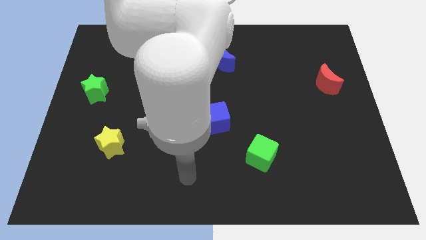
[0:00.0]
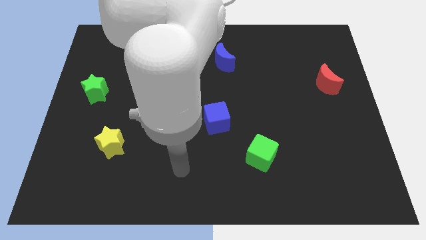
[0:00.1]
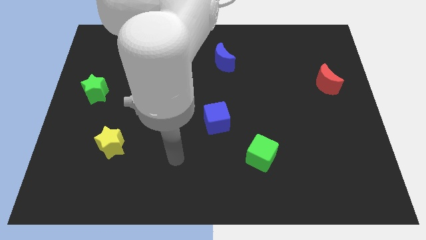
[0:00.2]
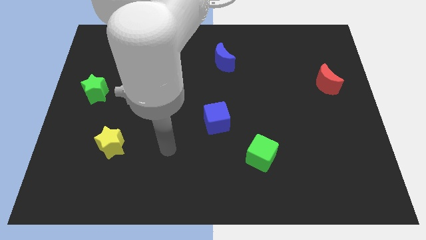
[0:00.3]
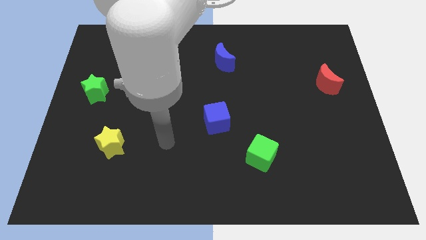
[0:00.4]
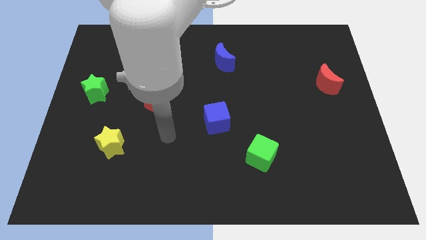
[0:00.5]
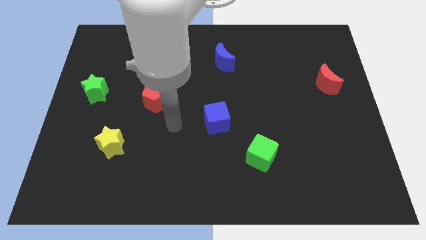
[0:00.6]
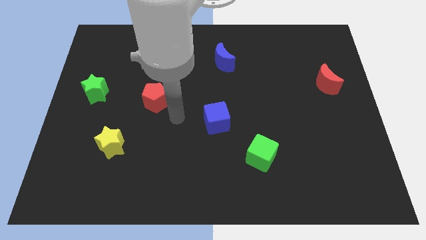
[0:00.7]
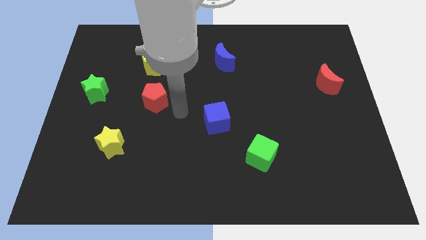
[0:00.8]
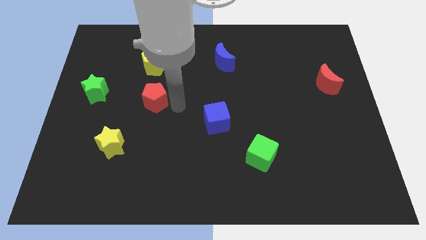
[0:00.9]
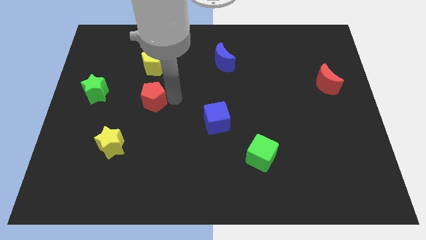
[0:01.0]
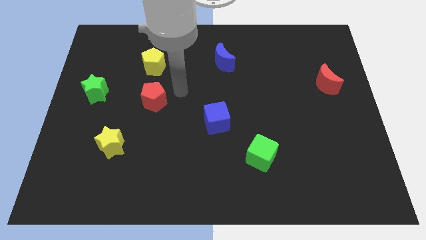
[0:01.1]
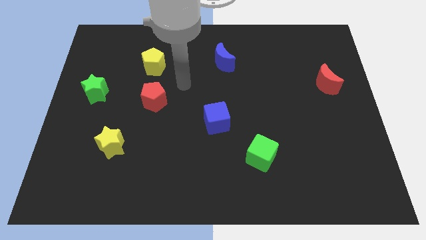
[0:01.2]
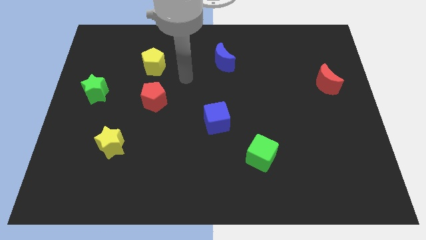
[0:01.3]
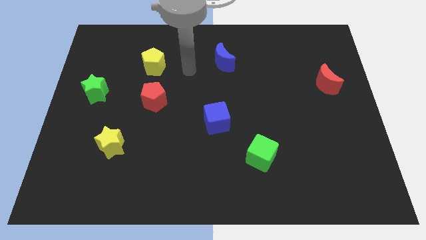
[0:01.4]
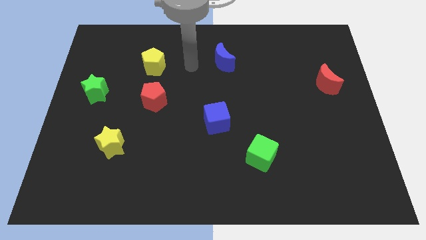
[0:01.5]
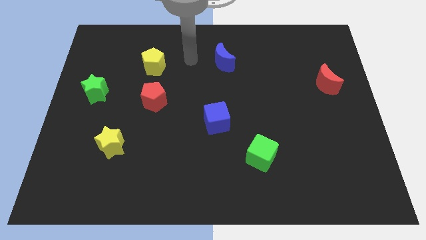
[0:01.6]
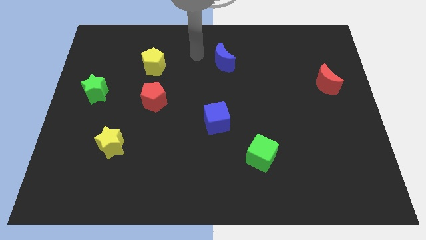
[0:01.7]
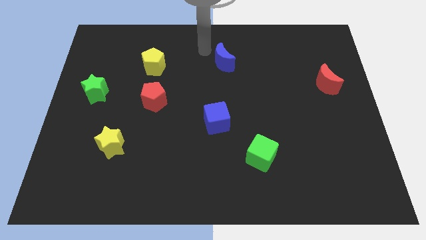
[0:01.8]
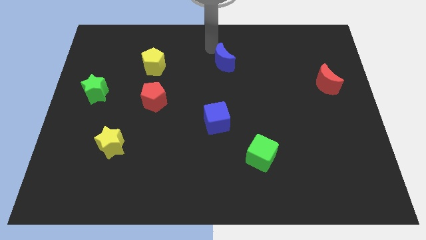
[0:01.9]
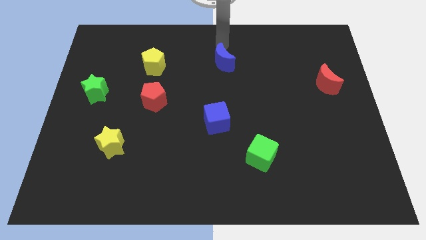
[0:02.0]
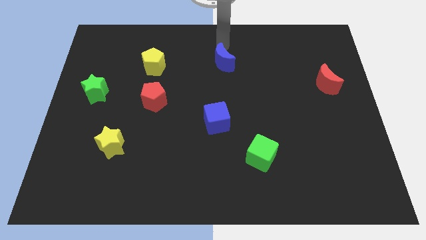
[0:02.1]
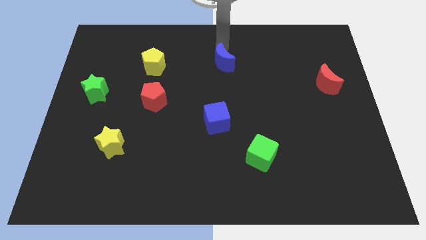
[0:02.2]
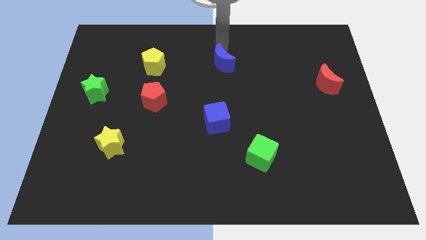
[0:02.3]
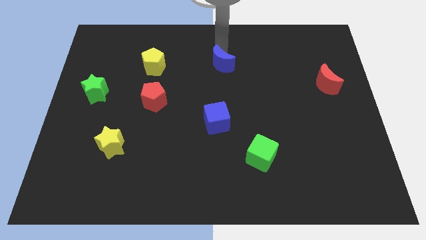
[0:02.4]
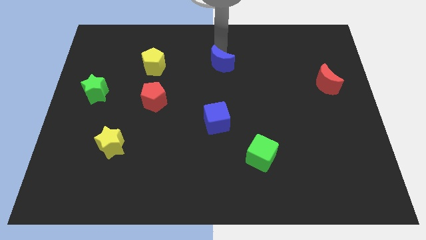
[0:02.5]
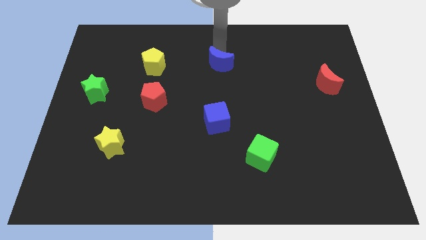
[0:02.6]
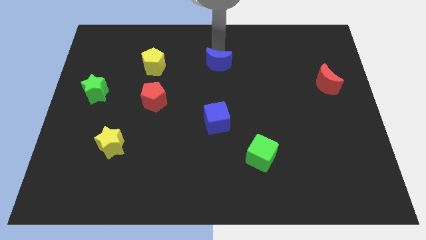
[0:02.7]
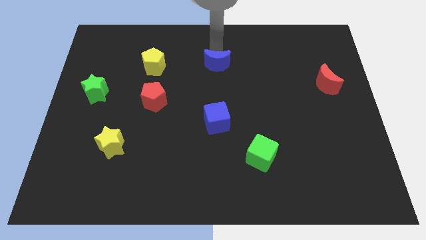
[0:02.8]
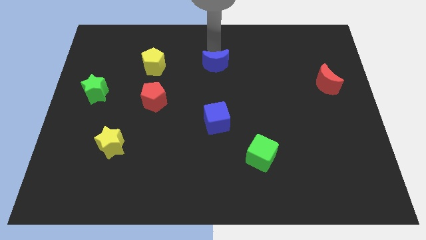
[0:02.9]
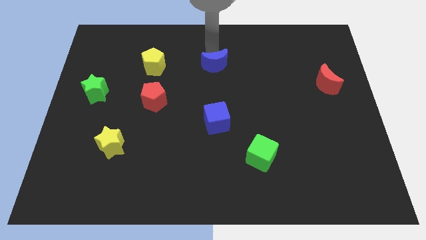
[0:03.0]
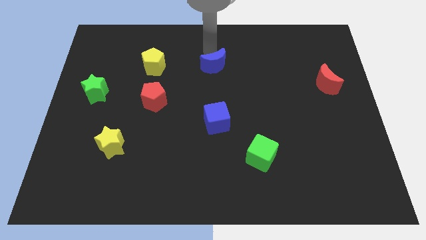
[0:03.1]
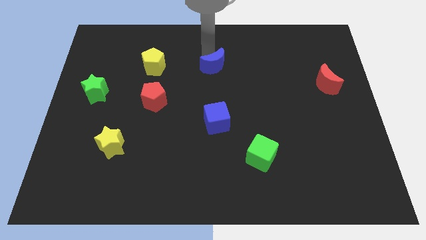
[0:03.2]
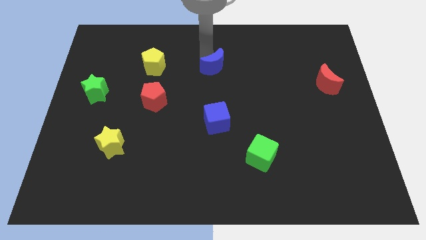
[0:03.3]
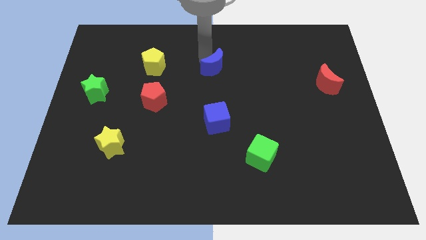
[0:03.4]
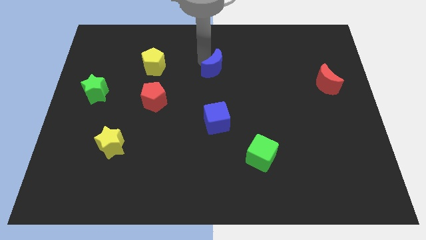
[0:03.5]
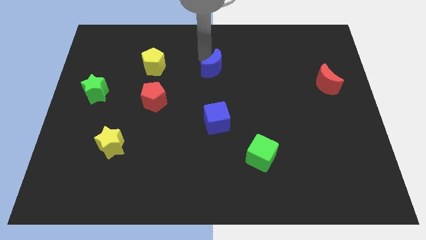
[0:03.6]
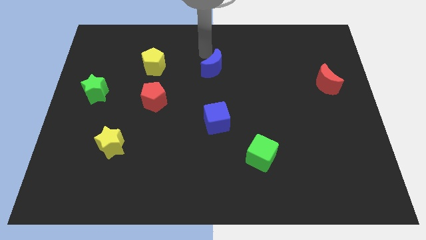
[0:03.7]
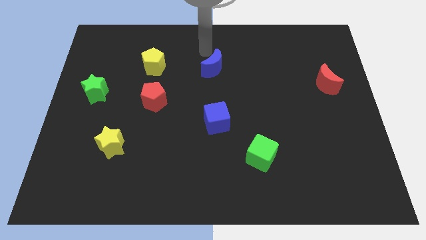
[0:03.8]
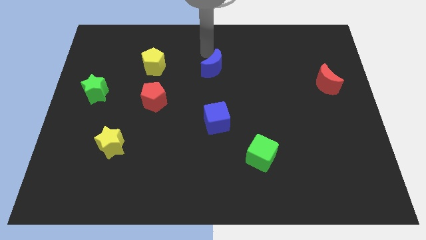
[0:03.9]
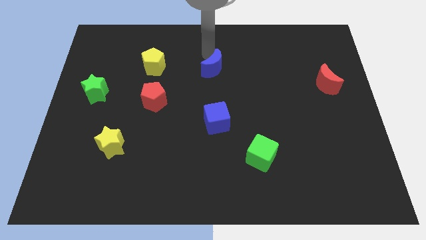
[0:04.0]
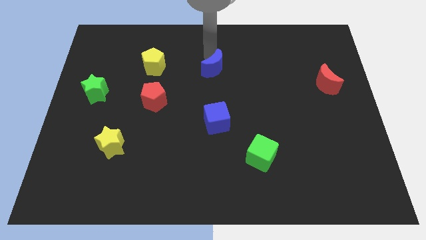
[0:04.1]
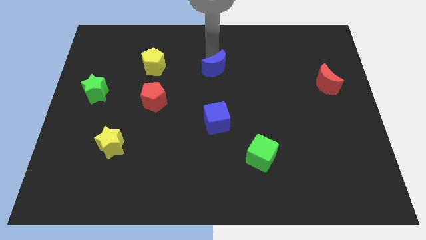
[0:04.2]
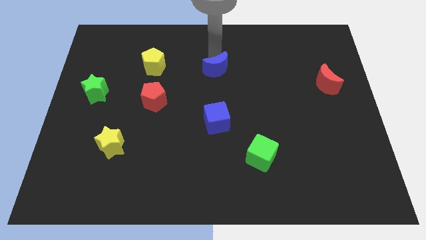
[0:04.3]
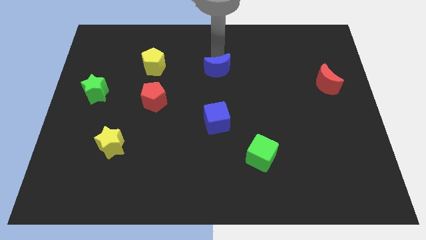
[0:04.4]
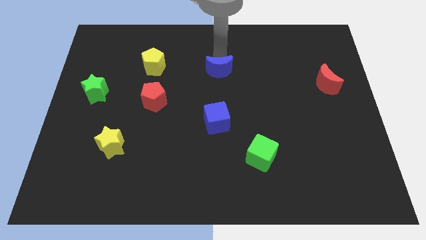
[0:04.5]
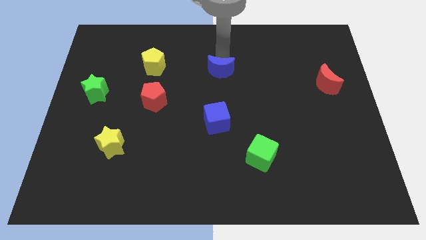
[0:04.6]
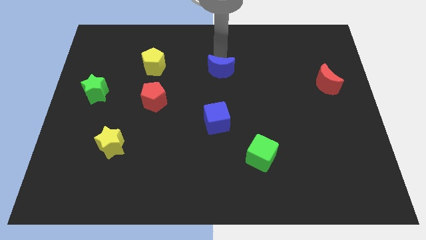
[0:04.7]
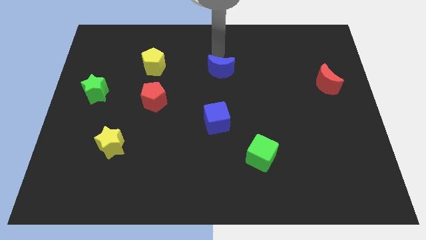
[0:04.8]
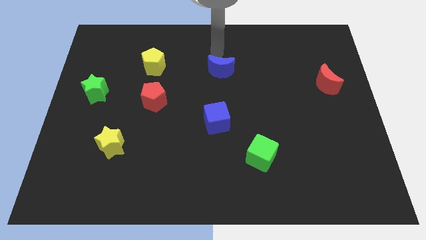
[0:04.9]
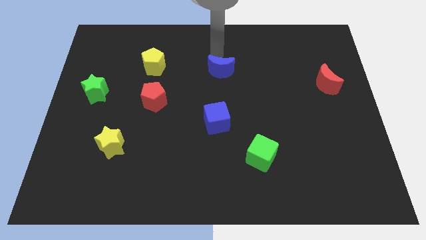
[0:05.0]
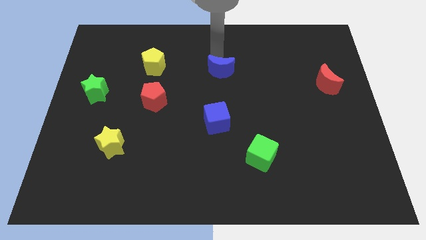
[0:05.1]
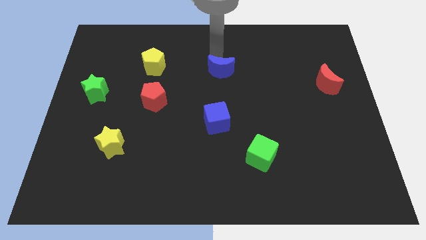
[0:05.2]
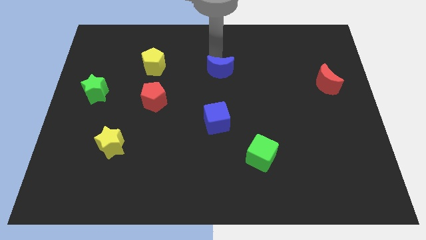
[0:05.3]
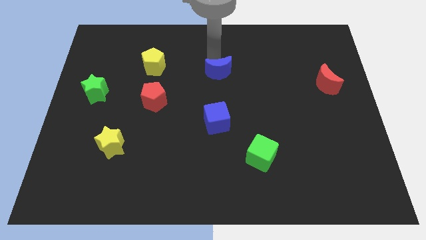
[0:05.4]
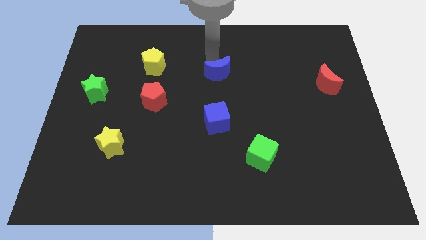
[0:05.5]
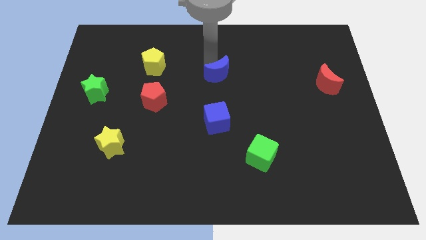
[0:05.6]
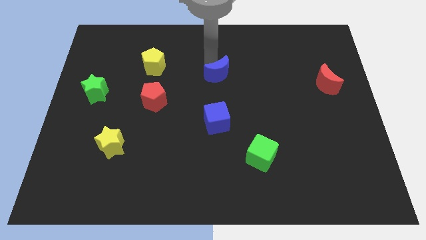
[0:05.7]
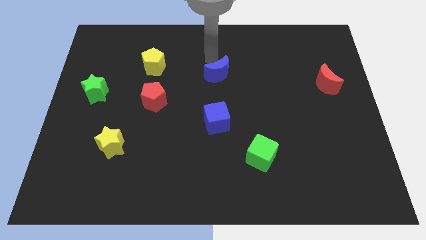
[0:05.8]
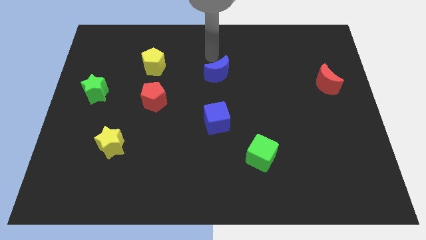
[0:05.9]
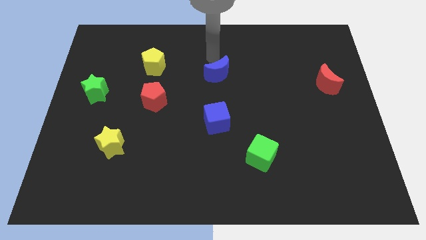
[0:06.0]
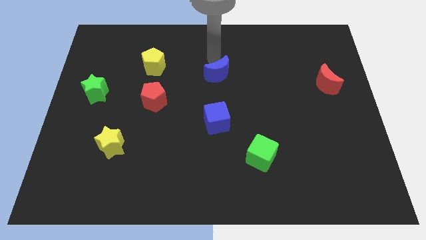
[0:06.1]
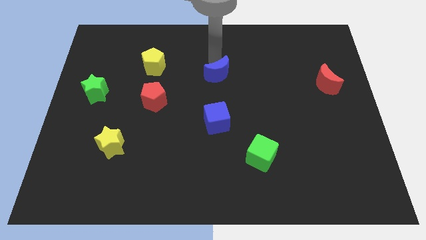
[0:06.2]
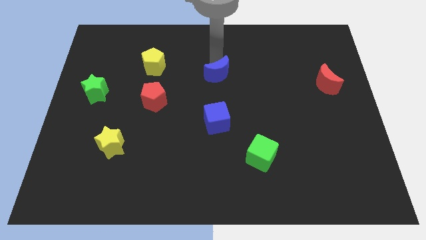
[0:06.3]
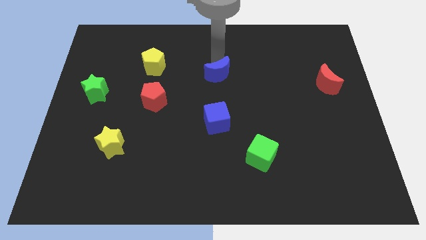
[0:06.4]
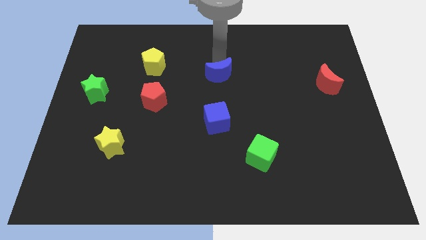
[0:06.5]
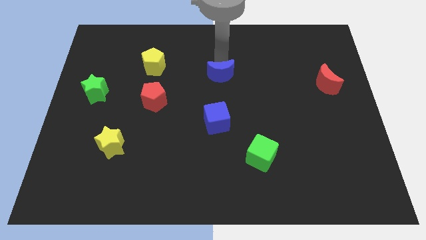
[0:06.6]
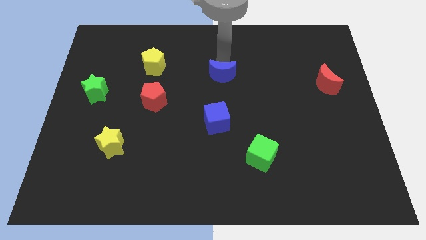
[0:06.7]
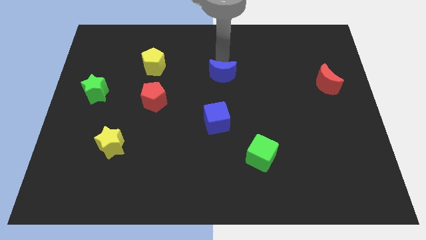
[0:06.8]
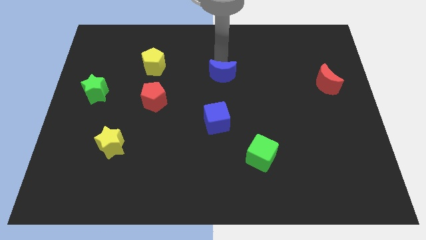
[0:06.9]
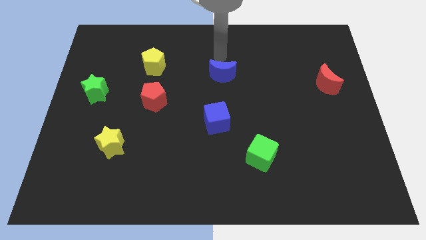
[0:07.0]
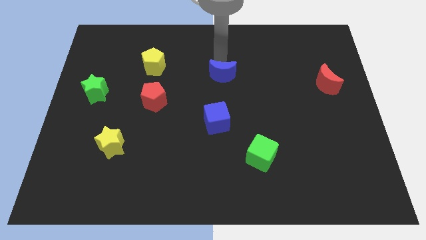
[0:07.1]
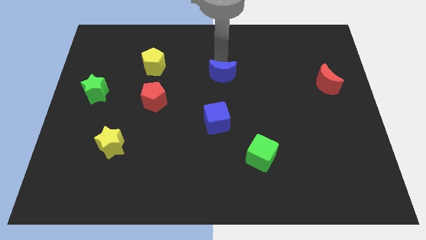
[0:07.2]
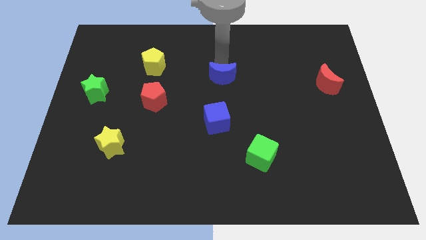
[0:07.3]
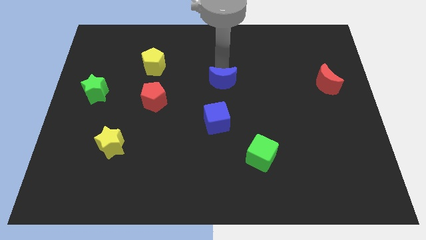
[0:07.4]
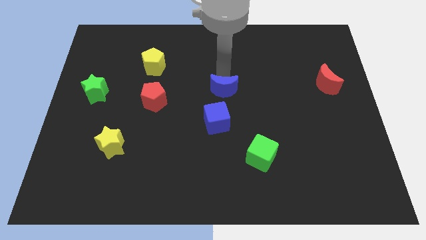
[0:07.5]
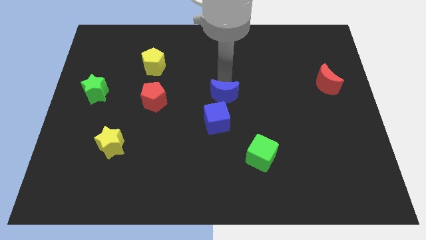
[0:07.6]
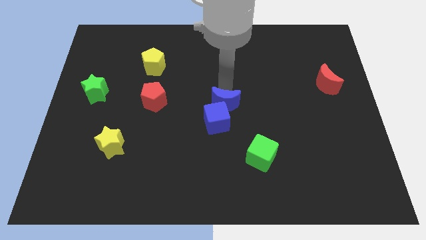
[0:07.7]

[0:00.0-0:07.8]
push the blue moon towards the blue cube
